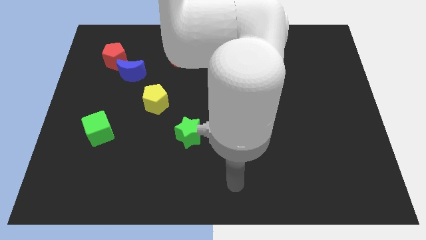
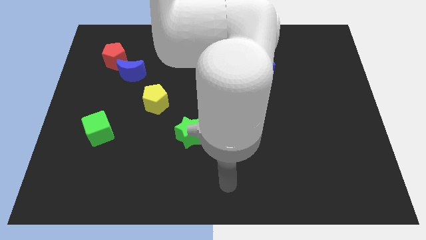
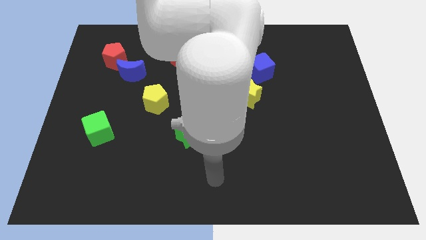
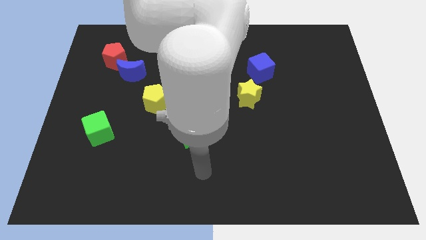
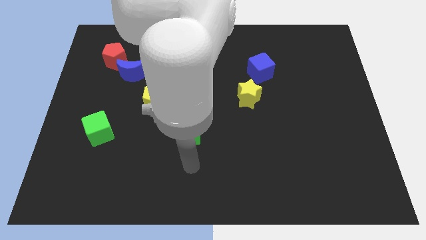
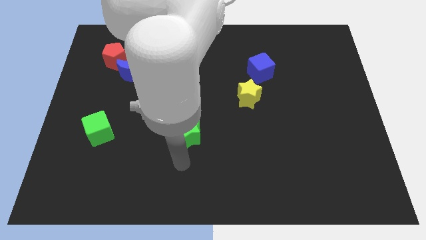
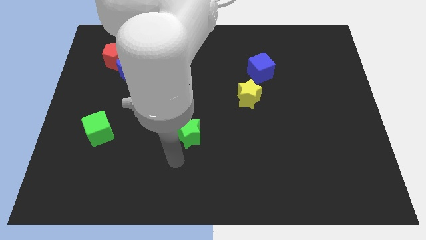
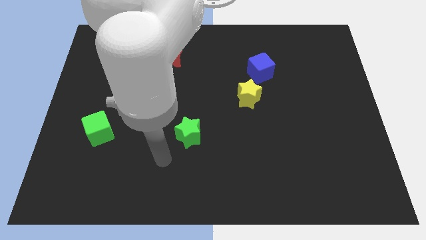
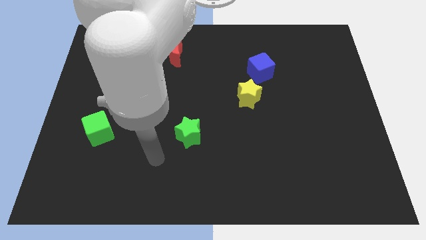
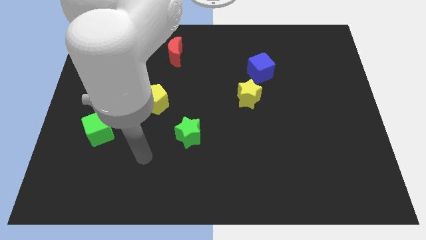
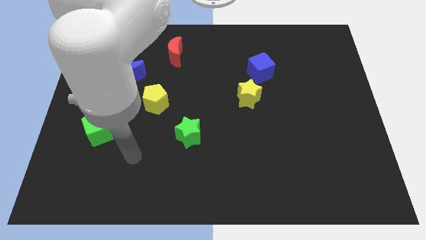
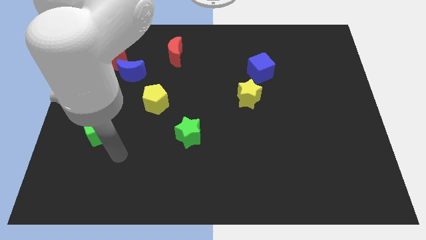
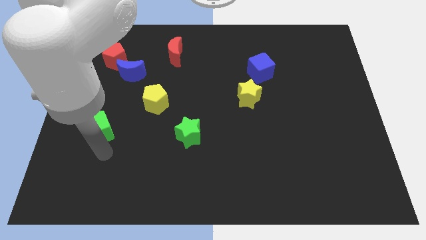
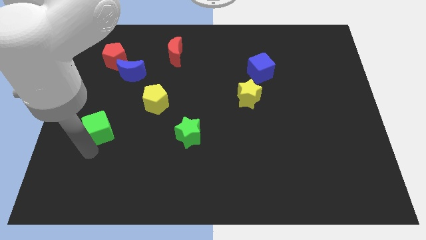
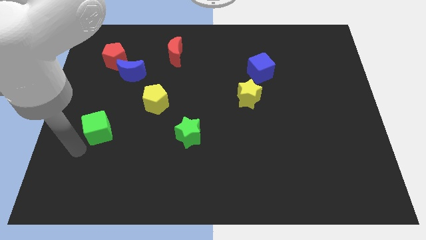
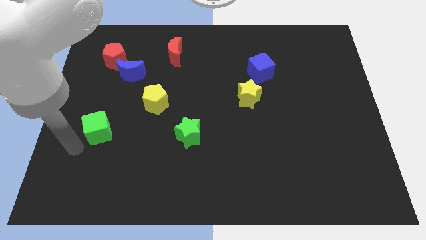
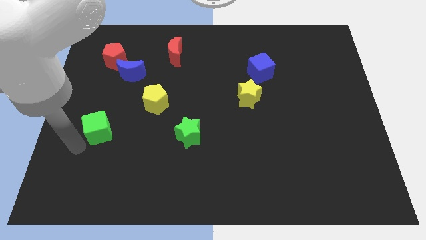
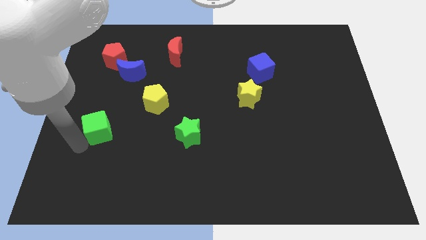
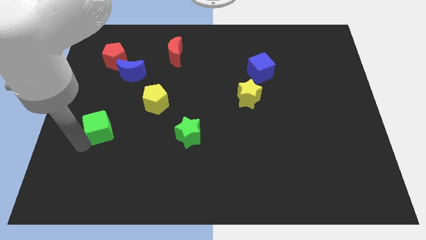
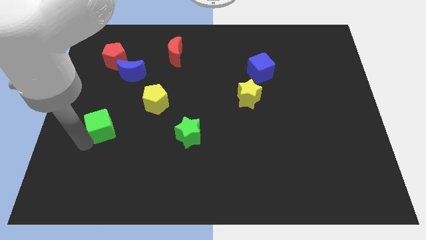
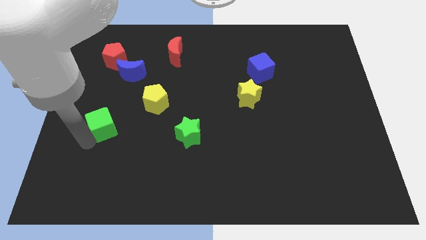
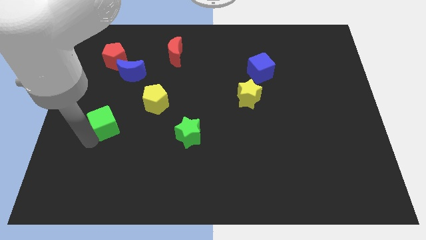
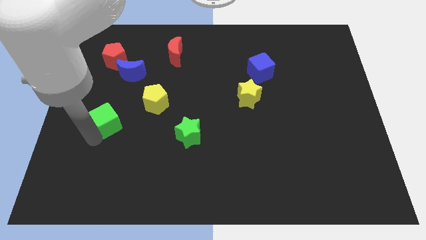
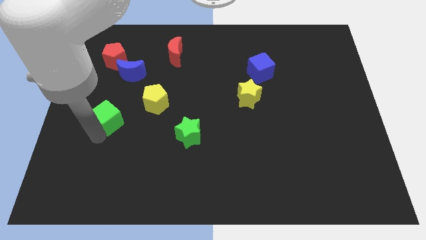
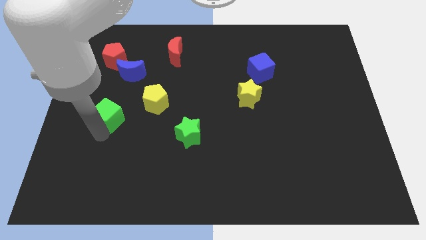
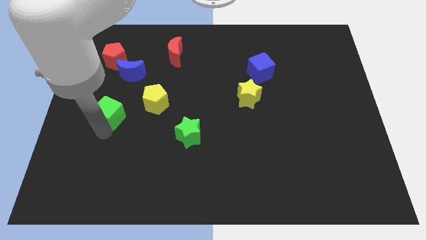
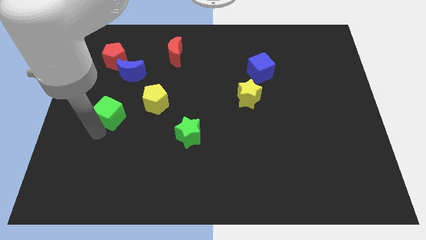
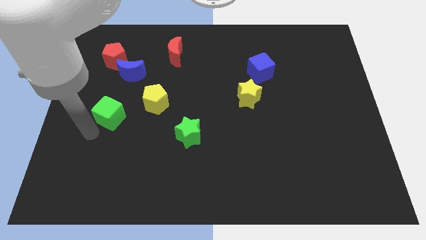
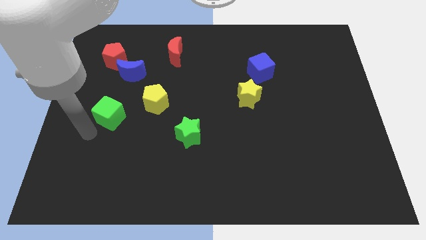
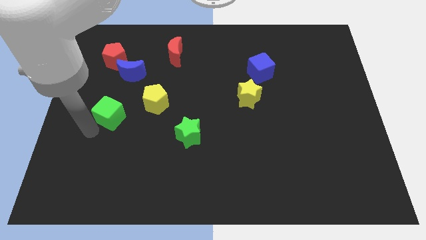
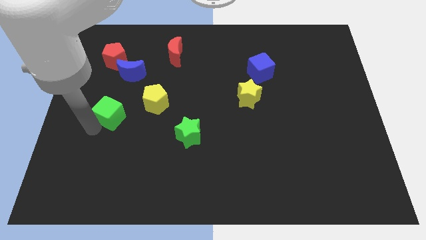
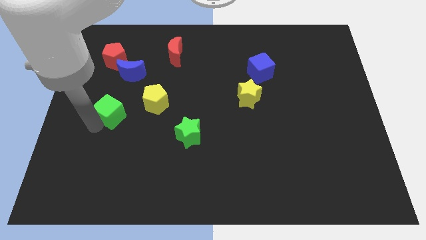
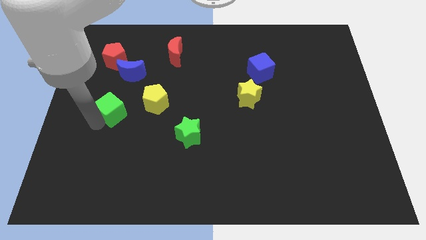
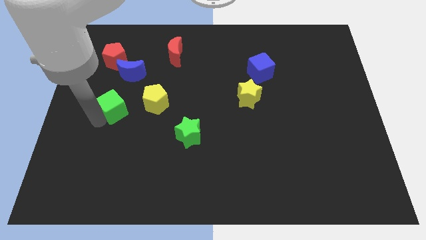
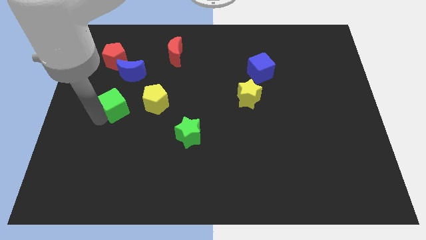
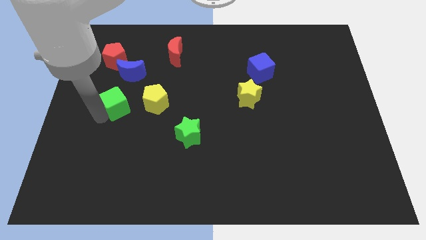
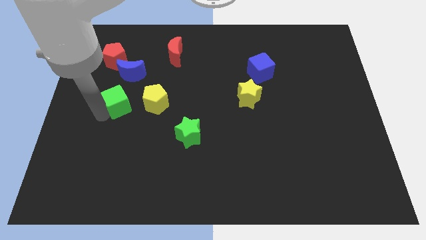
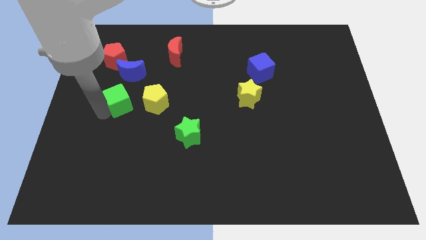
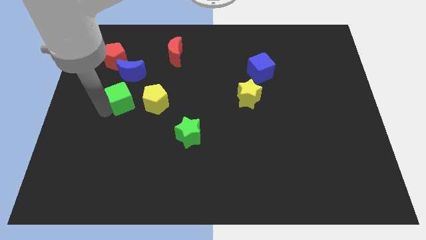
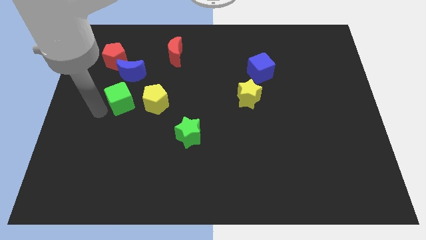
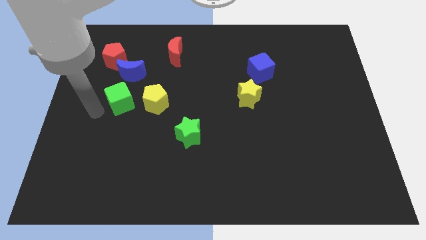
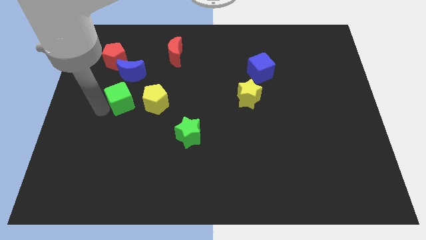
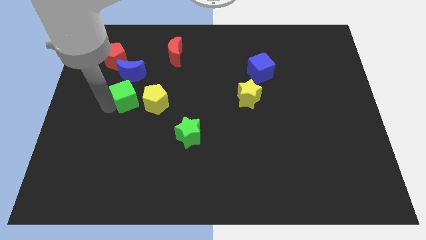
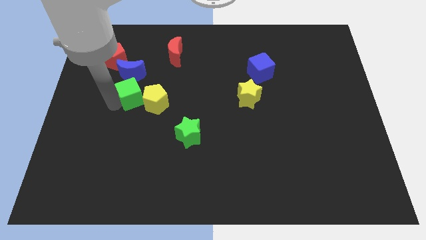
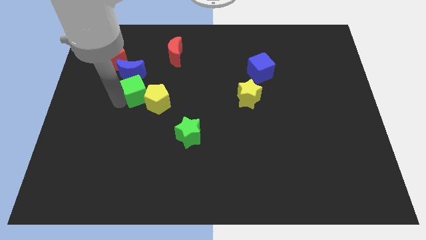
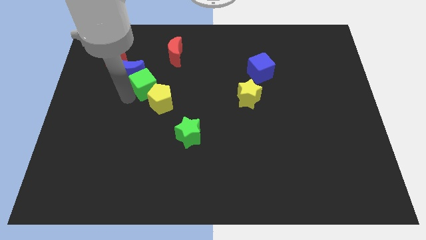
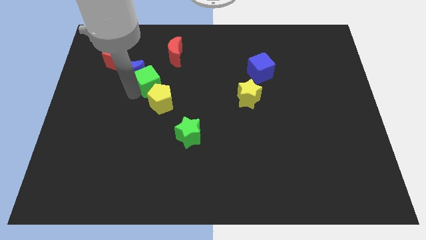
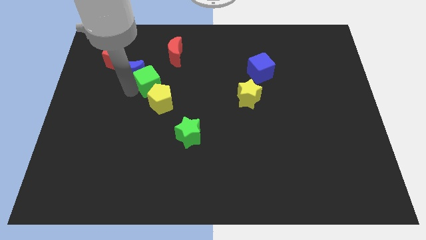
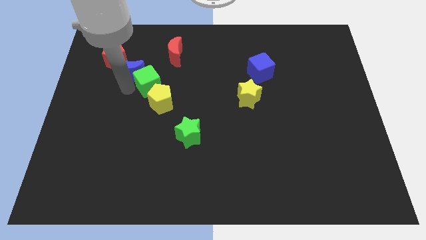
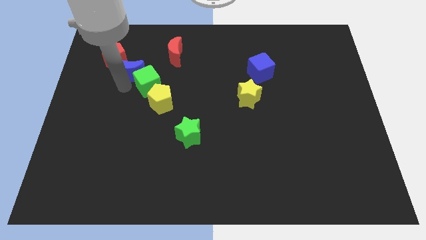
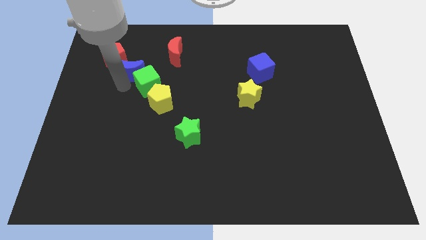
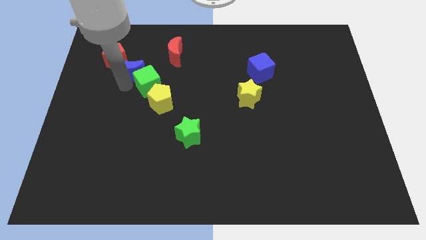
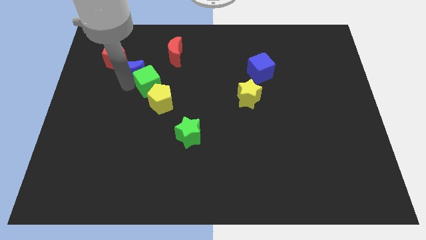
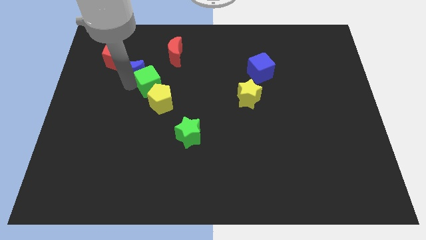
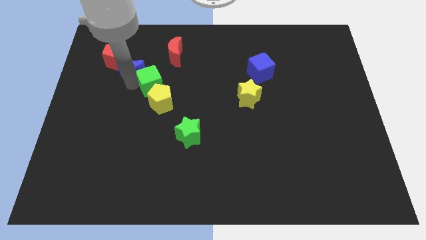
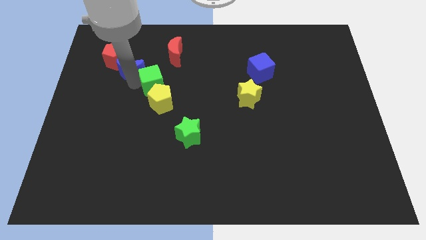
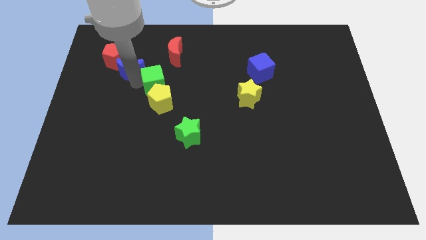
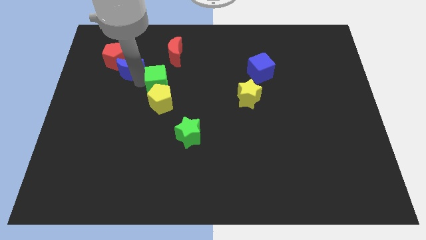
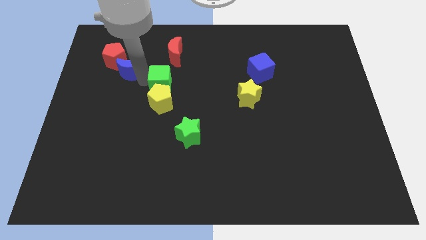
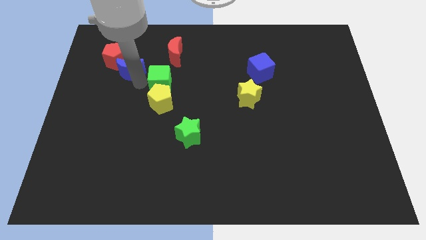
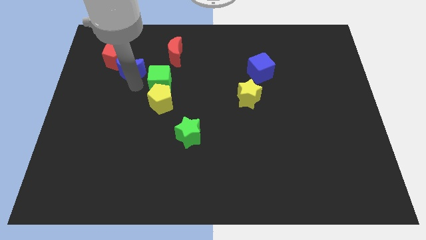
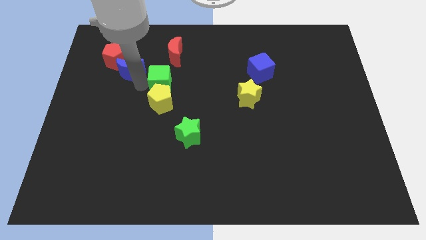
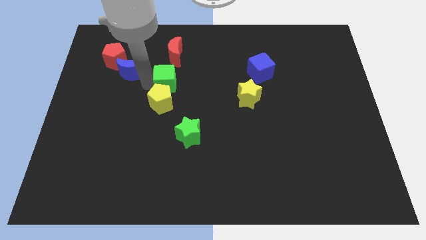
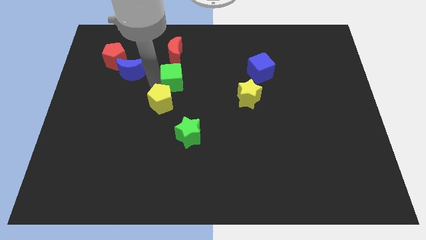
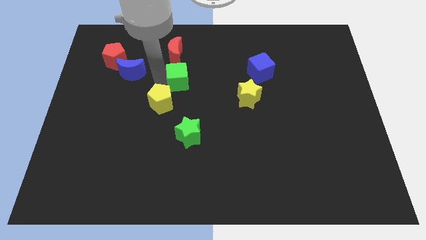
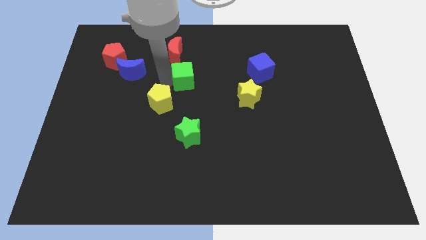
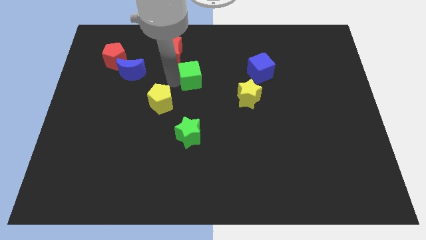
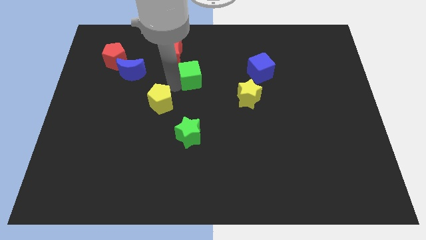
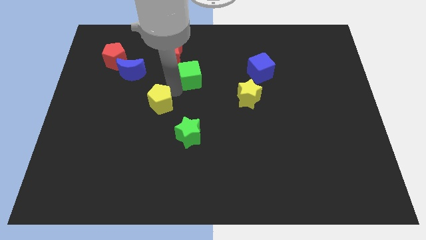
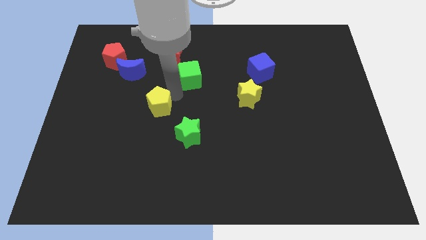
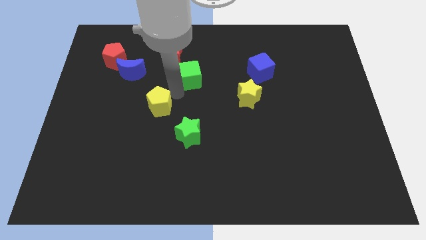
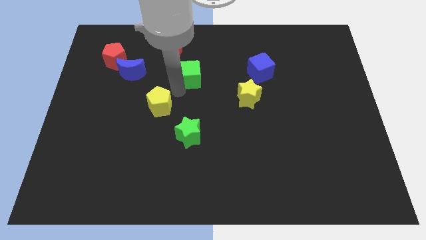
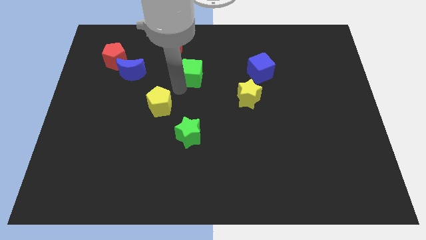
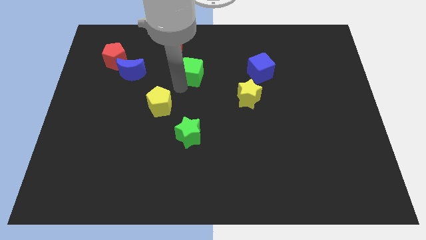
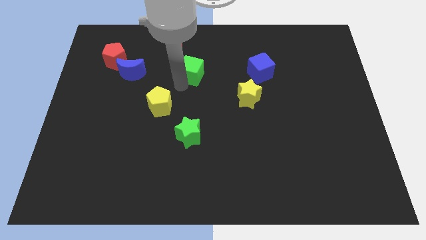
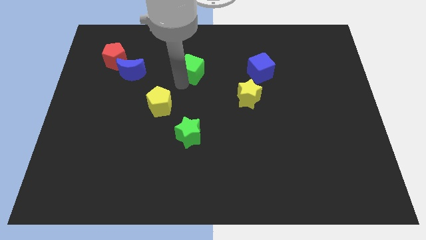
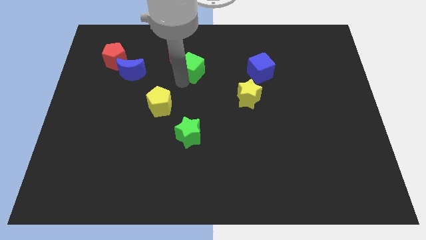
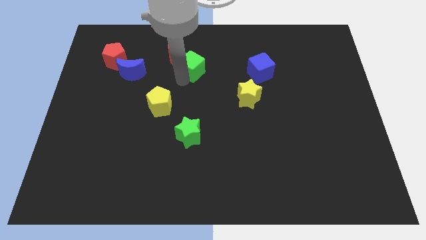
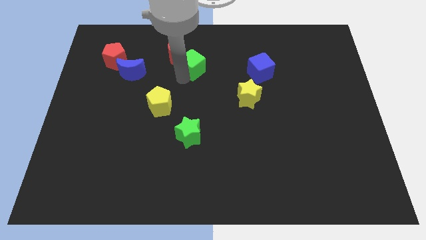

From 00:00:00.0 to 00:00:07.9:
put the green cube to the right side of the red moon

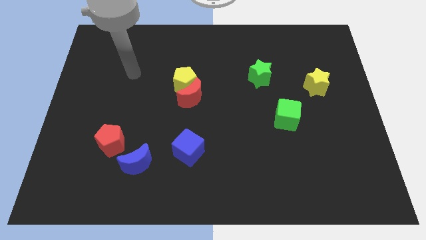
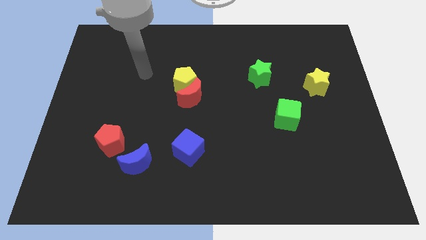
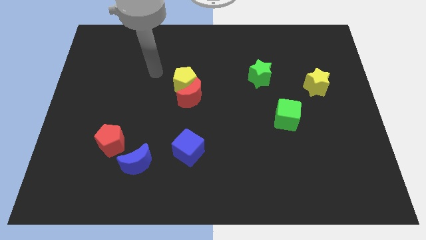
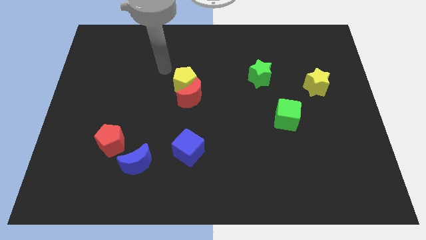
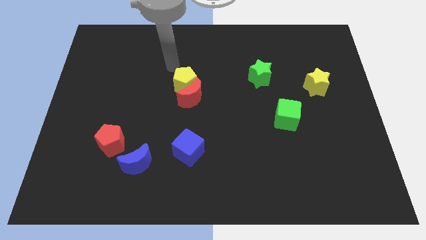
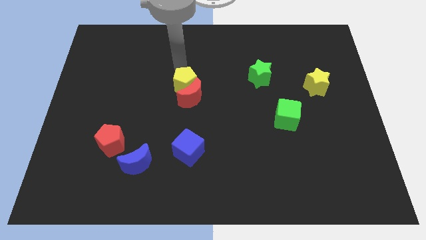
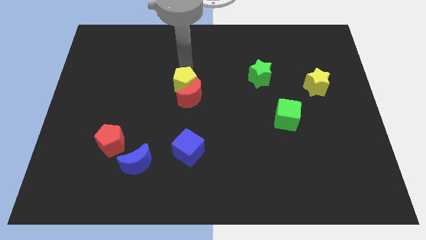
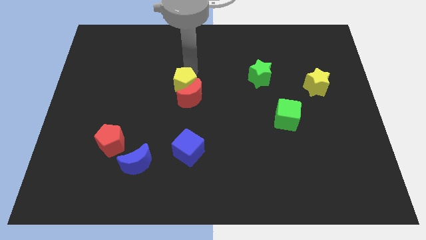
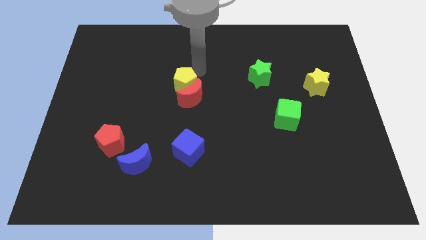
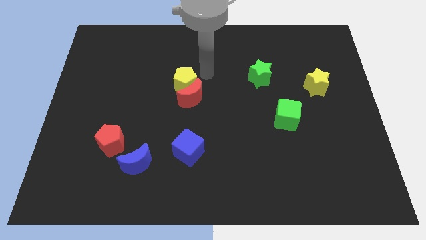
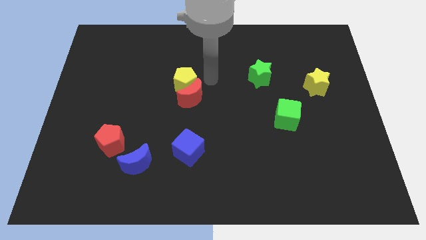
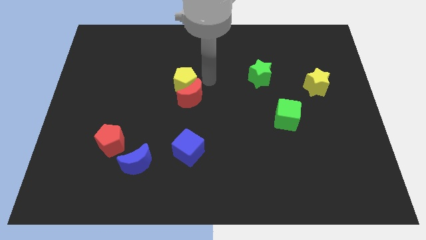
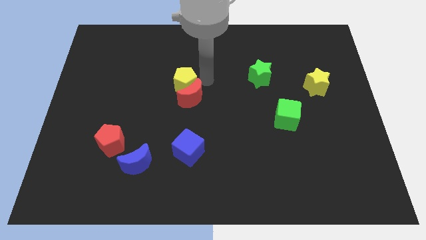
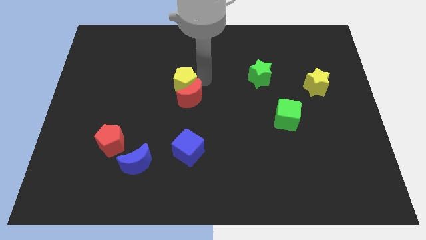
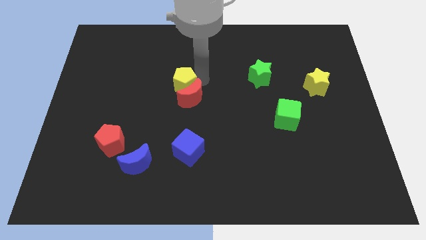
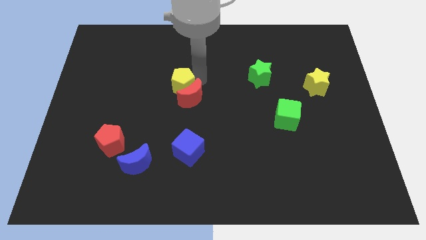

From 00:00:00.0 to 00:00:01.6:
push the yellow pentagon just left of the red moon
